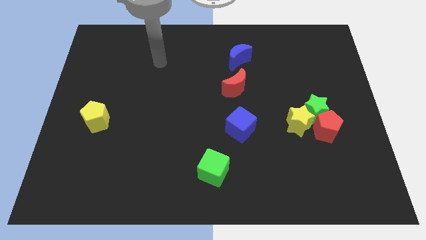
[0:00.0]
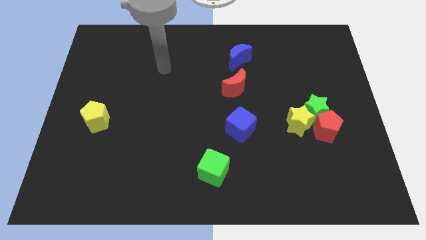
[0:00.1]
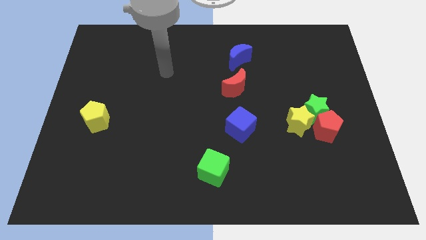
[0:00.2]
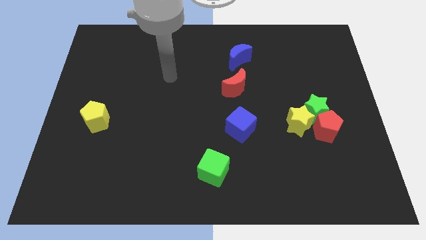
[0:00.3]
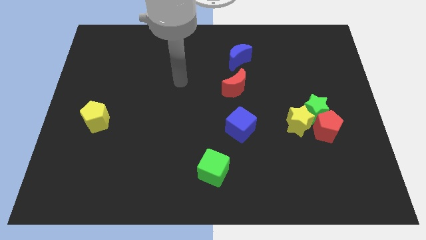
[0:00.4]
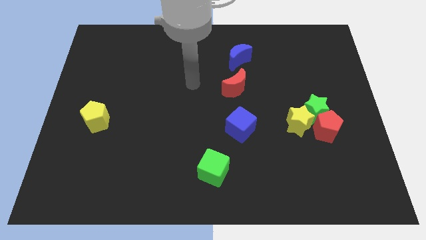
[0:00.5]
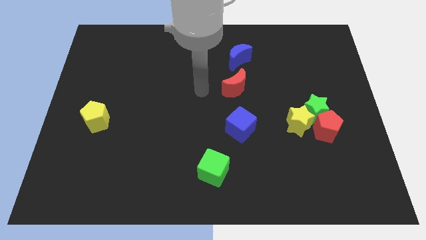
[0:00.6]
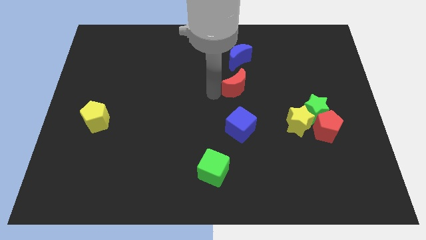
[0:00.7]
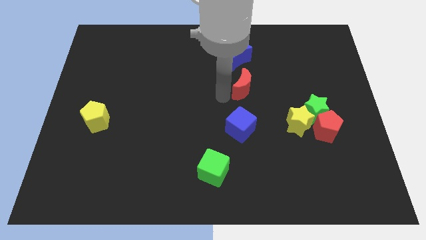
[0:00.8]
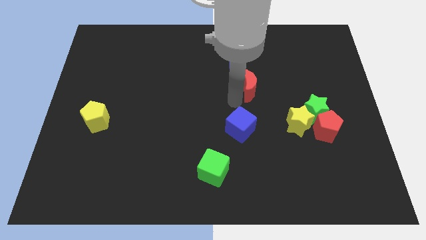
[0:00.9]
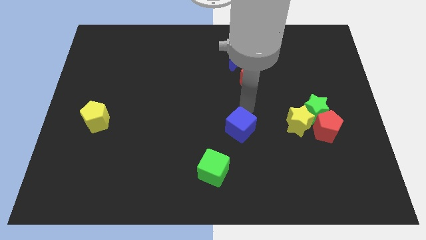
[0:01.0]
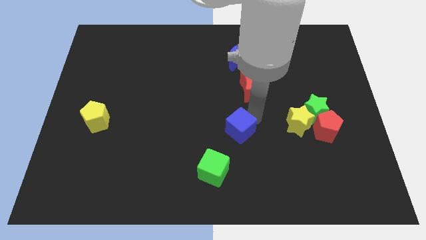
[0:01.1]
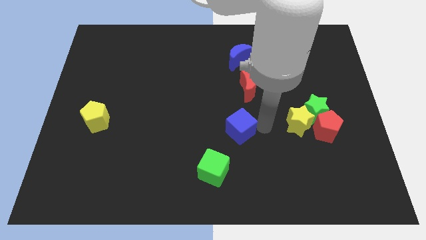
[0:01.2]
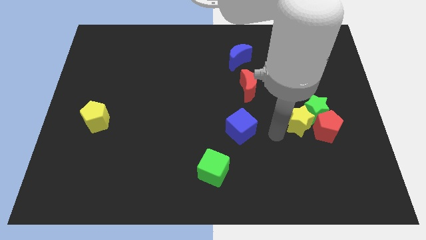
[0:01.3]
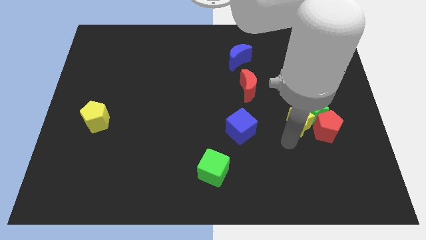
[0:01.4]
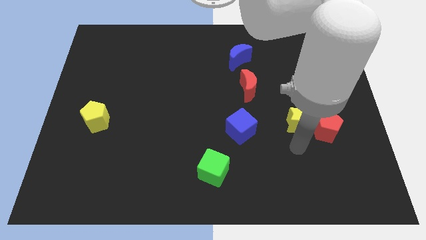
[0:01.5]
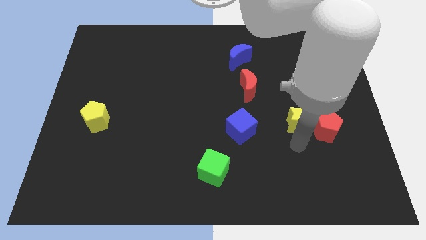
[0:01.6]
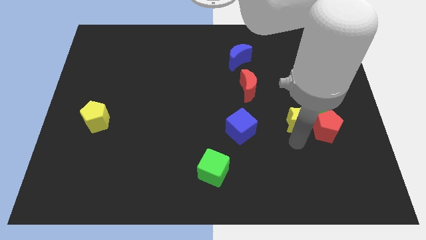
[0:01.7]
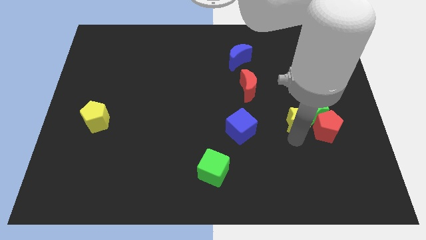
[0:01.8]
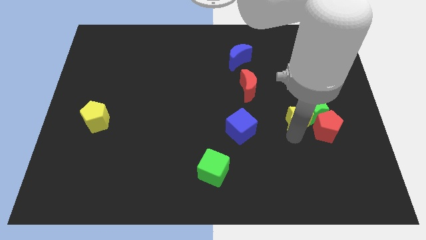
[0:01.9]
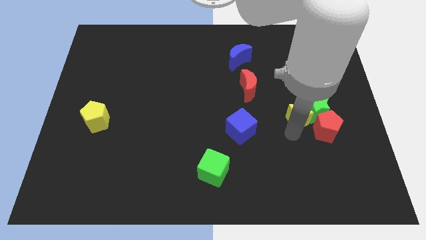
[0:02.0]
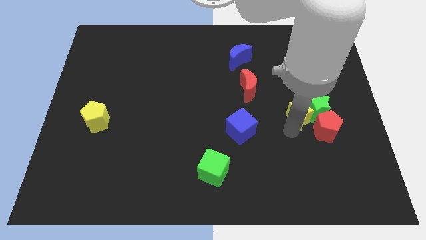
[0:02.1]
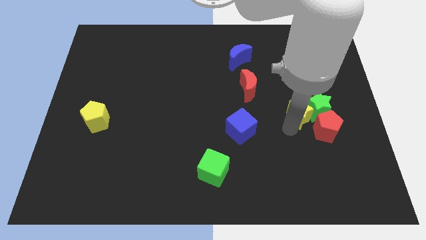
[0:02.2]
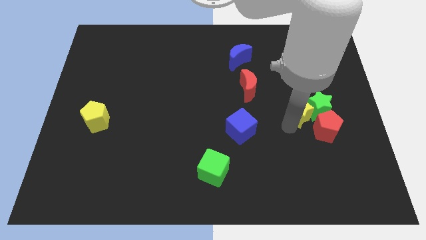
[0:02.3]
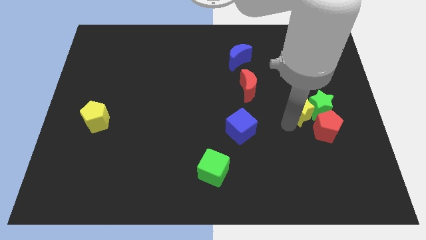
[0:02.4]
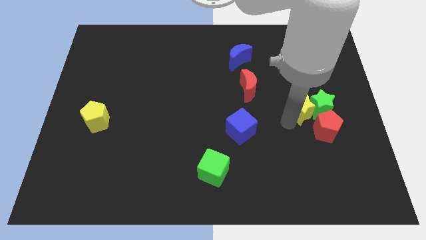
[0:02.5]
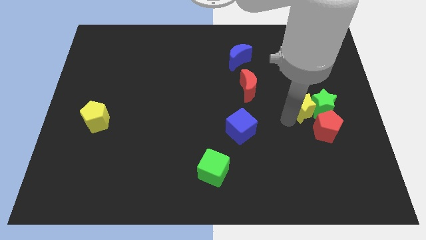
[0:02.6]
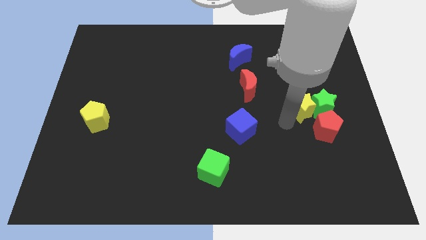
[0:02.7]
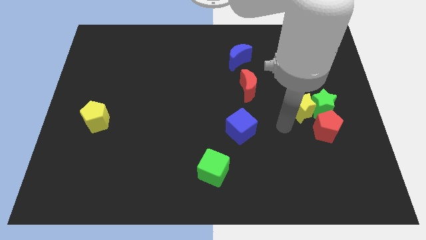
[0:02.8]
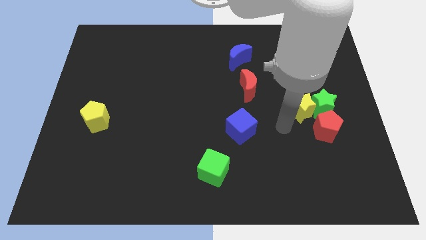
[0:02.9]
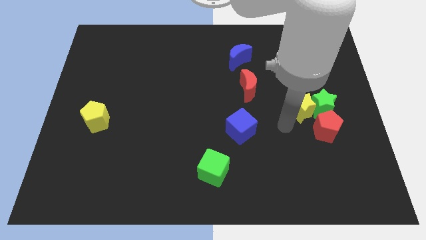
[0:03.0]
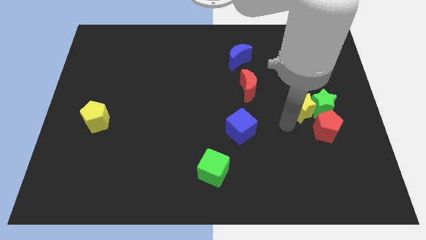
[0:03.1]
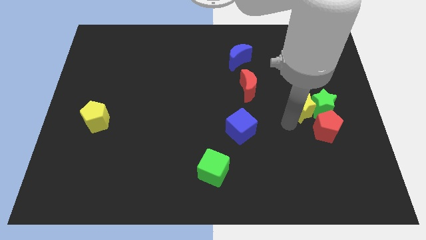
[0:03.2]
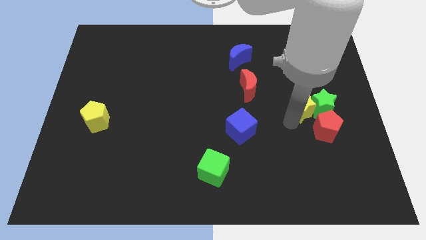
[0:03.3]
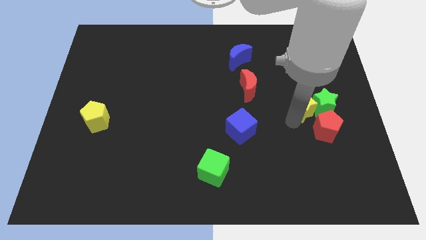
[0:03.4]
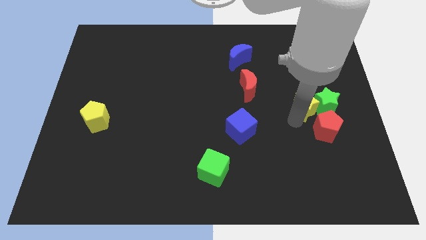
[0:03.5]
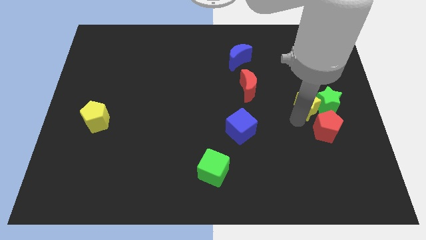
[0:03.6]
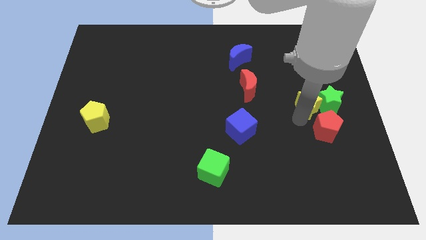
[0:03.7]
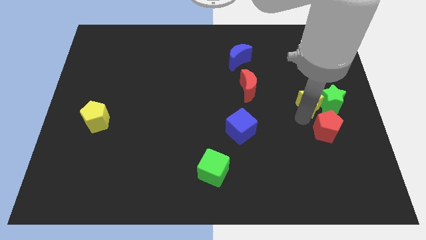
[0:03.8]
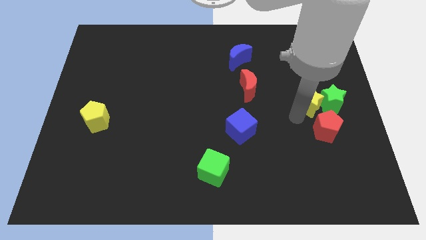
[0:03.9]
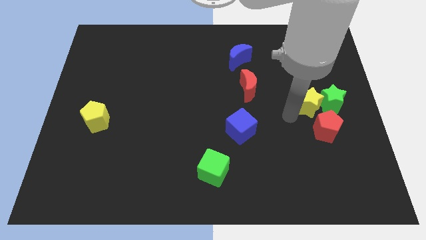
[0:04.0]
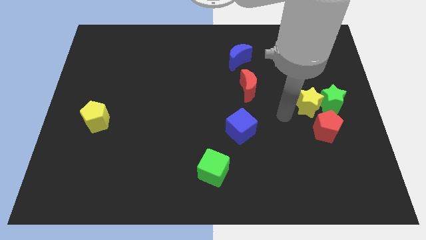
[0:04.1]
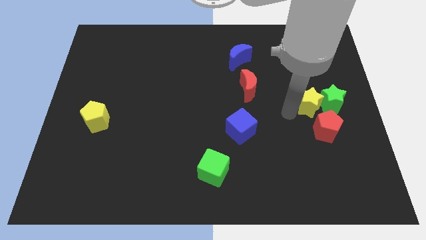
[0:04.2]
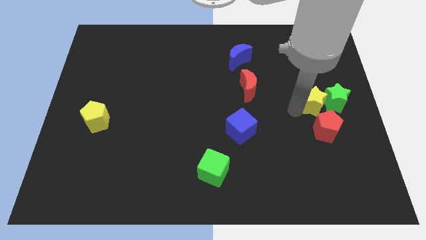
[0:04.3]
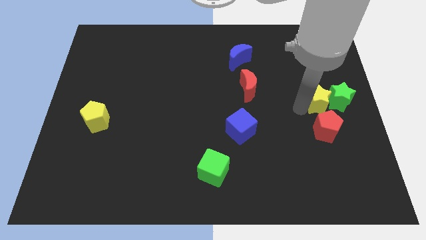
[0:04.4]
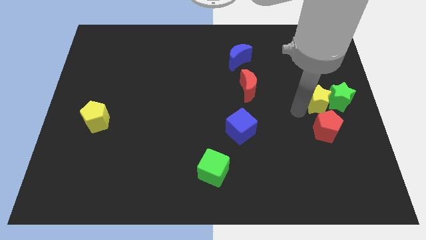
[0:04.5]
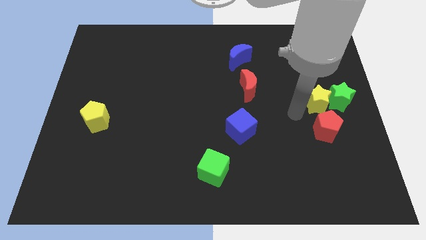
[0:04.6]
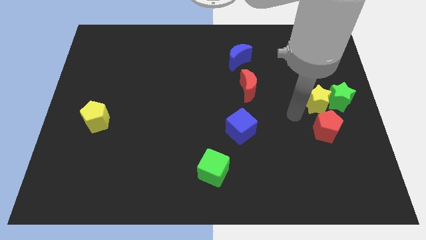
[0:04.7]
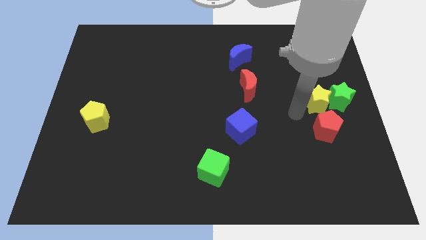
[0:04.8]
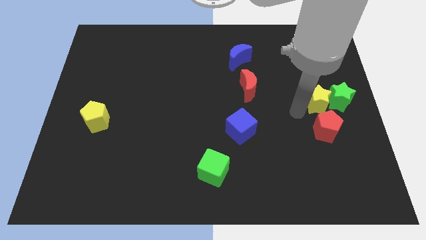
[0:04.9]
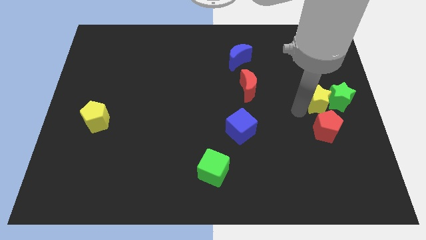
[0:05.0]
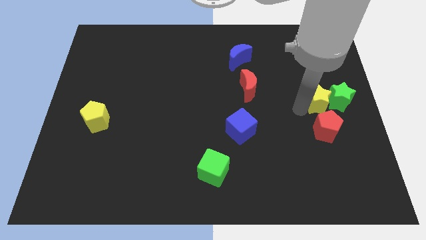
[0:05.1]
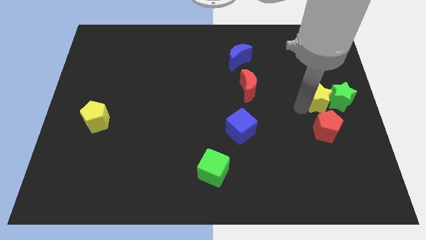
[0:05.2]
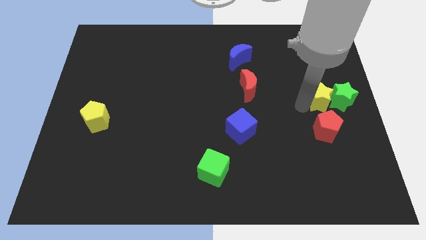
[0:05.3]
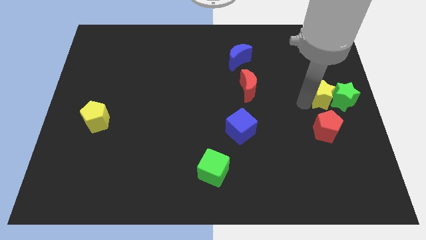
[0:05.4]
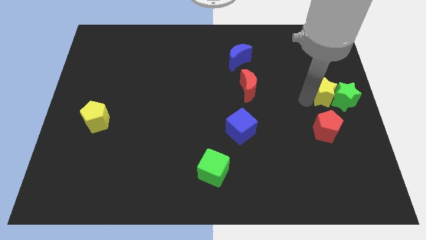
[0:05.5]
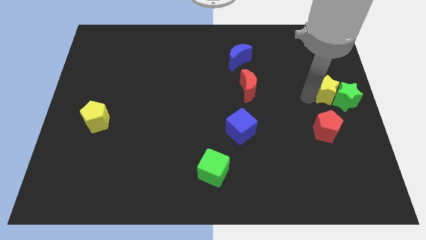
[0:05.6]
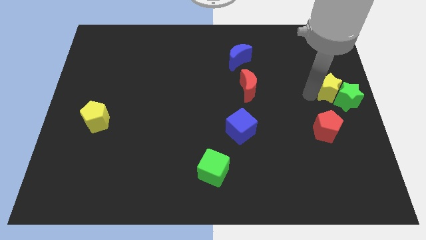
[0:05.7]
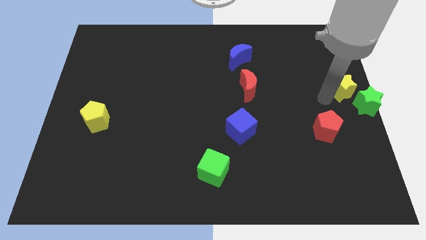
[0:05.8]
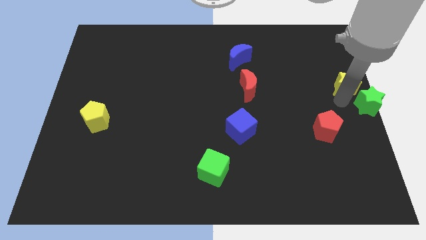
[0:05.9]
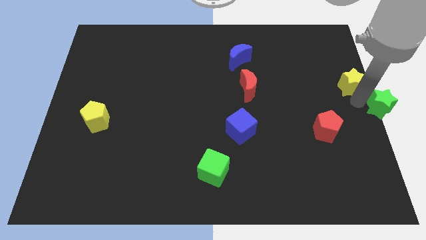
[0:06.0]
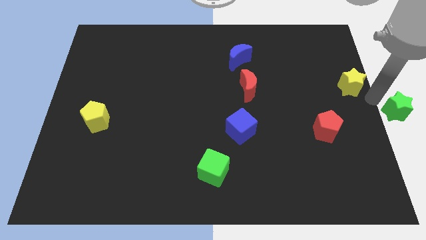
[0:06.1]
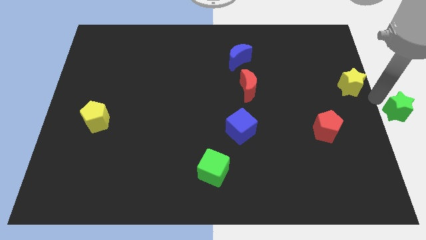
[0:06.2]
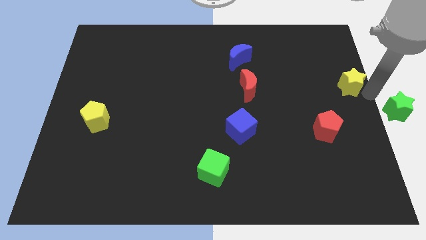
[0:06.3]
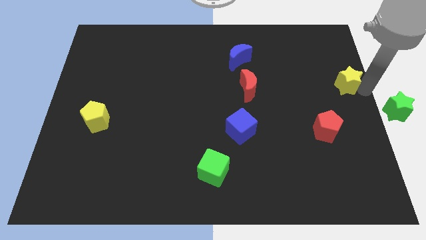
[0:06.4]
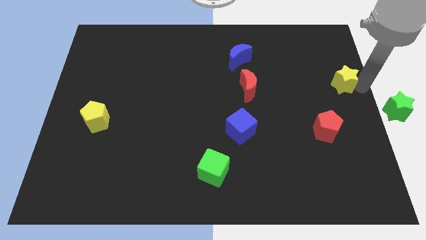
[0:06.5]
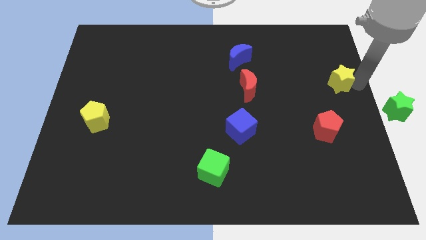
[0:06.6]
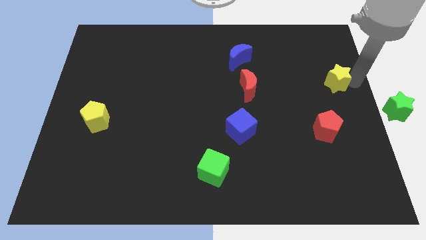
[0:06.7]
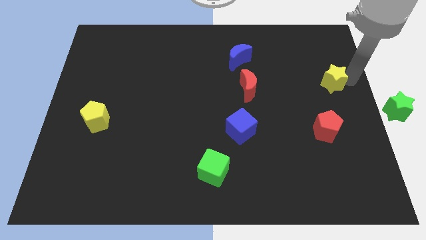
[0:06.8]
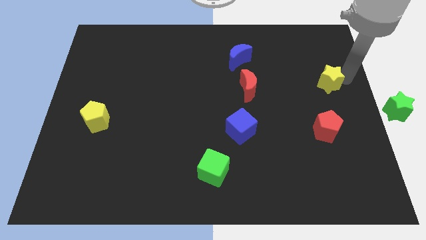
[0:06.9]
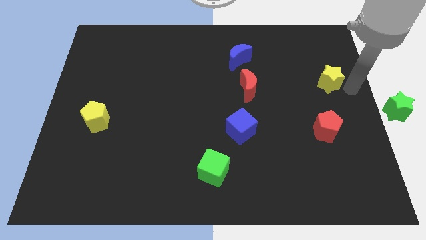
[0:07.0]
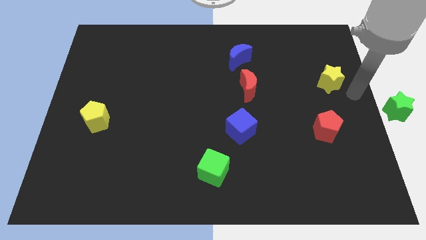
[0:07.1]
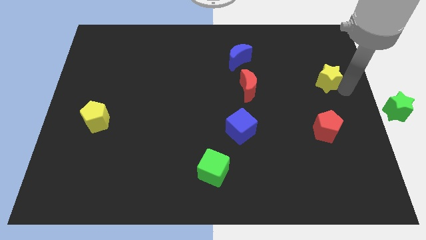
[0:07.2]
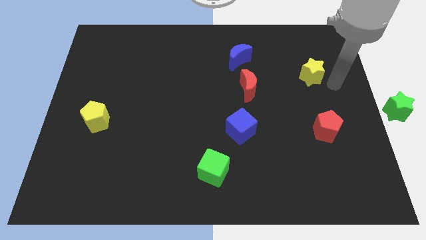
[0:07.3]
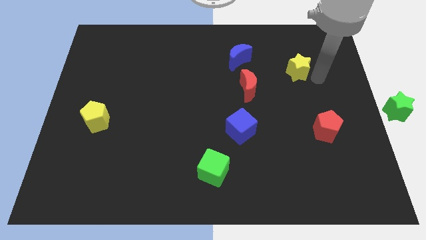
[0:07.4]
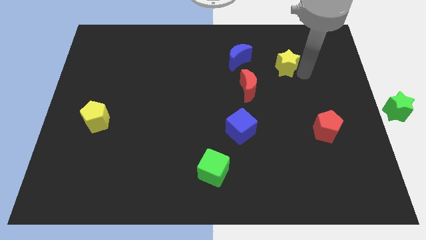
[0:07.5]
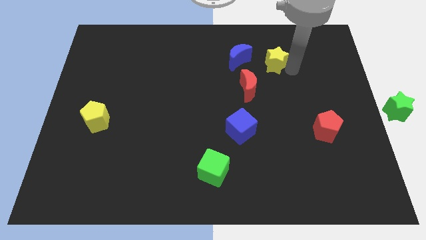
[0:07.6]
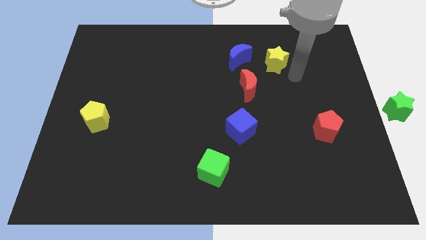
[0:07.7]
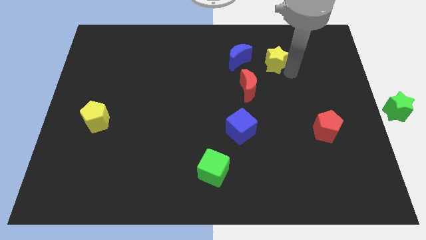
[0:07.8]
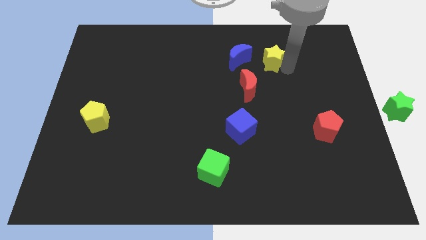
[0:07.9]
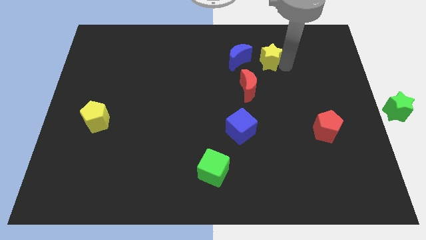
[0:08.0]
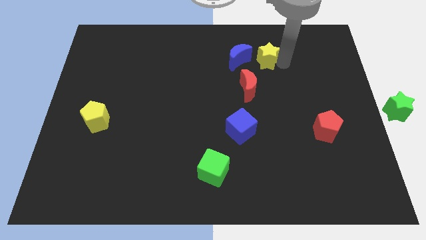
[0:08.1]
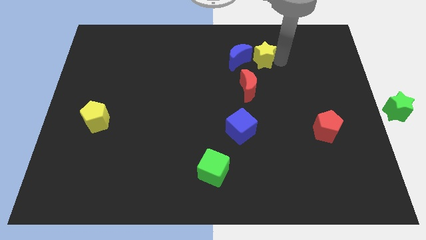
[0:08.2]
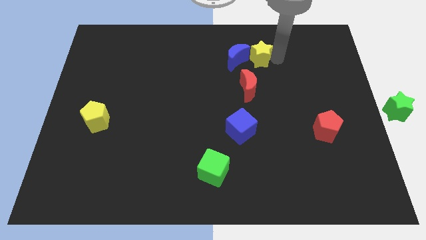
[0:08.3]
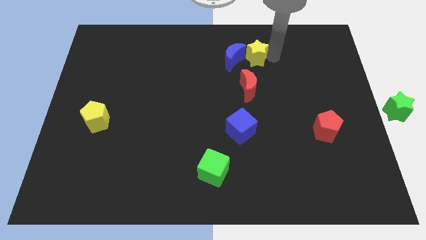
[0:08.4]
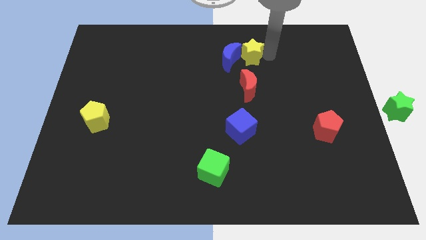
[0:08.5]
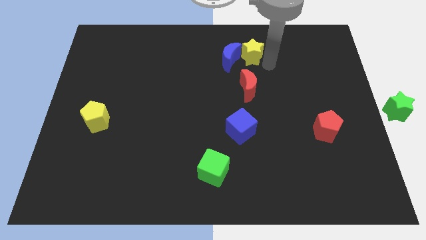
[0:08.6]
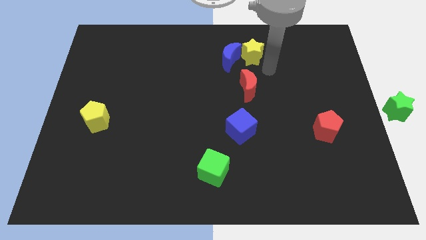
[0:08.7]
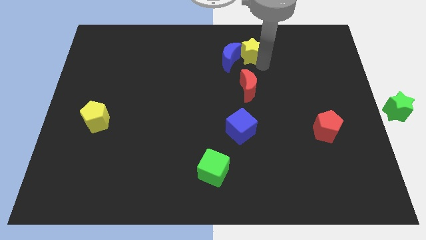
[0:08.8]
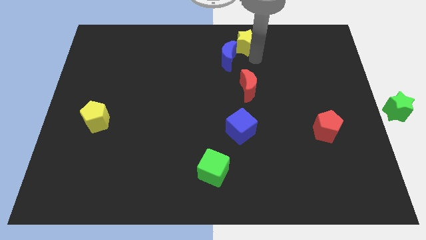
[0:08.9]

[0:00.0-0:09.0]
slide the yellow star to the top
